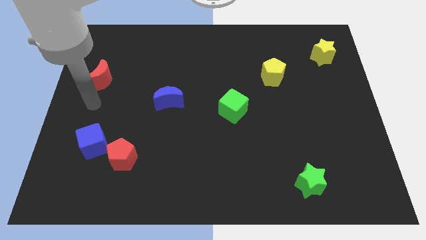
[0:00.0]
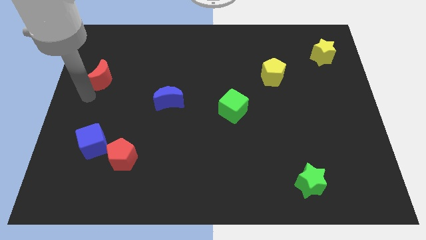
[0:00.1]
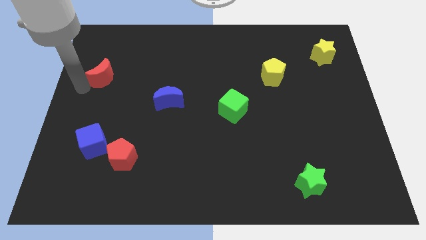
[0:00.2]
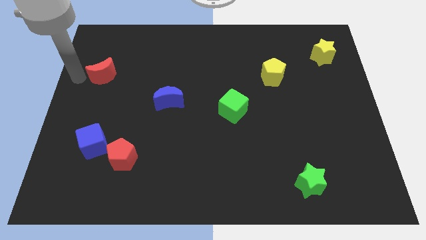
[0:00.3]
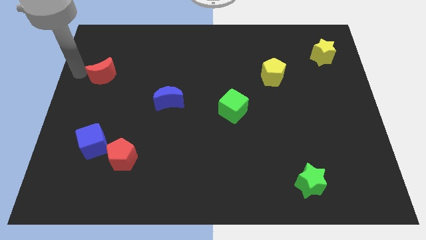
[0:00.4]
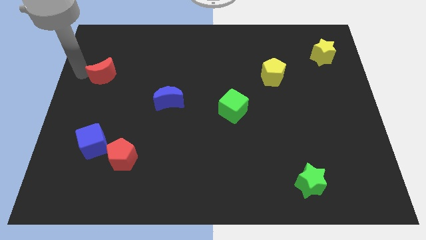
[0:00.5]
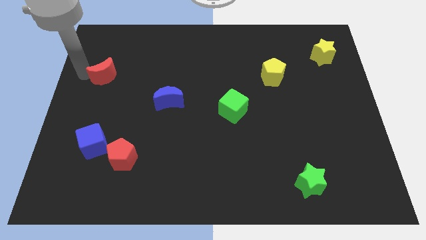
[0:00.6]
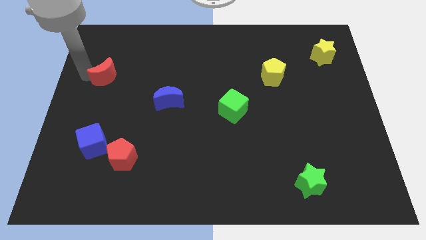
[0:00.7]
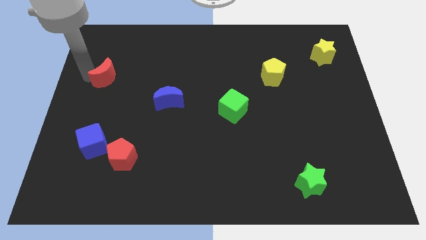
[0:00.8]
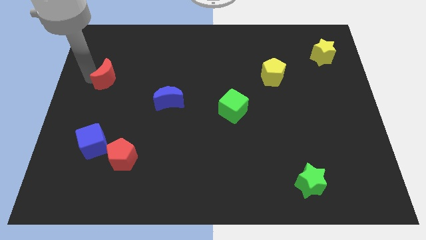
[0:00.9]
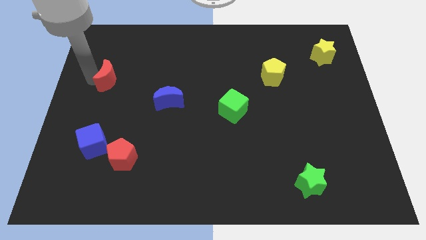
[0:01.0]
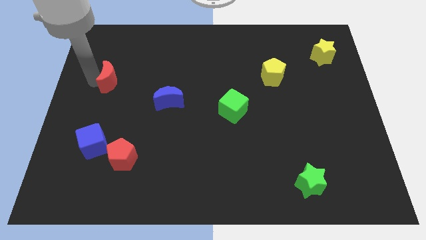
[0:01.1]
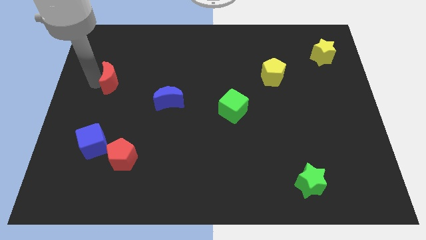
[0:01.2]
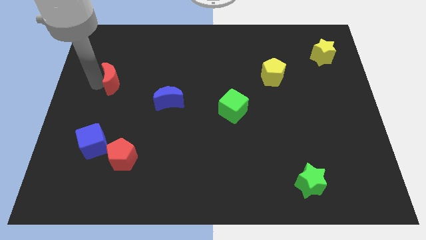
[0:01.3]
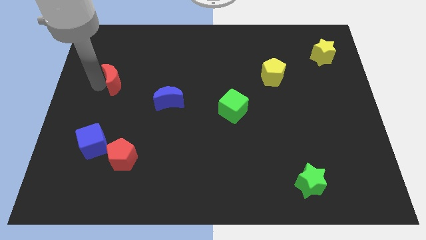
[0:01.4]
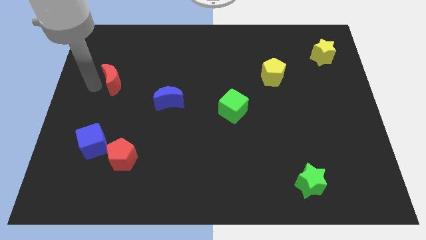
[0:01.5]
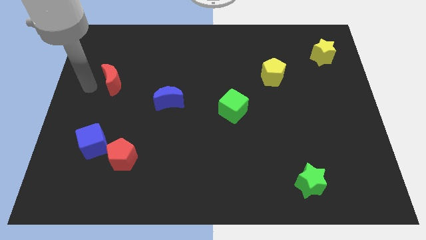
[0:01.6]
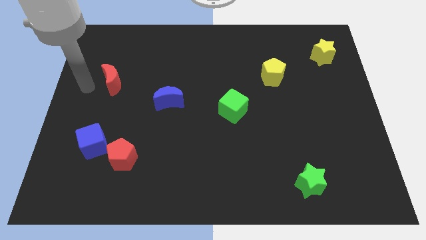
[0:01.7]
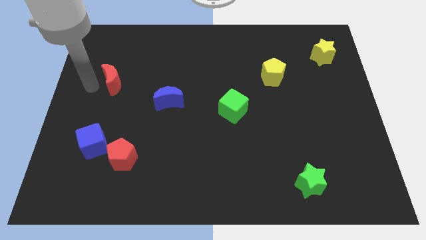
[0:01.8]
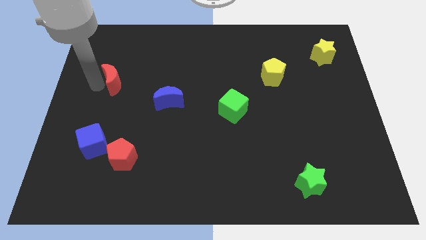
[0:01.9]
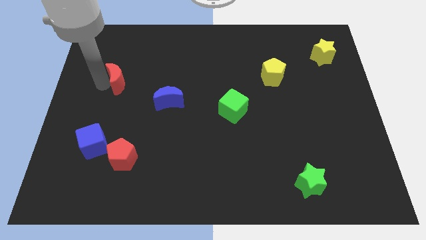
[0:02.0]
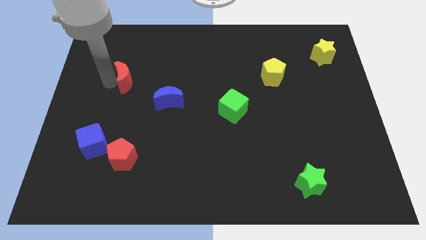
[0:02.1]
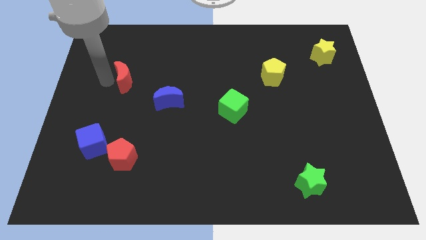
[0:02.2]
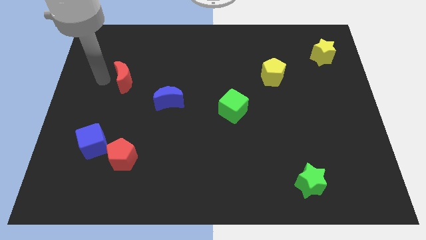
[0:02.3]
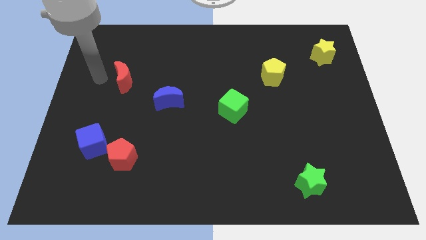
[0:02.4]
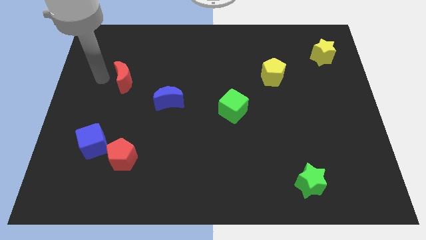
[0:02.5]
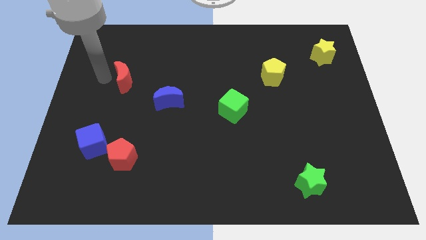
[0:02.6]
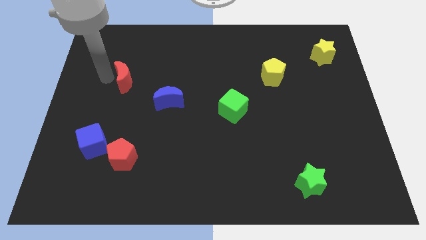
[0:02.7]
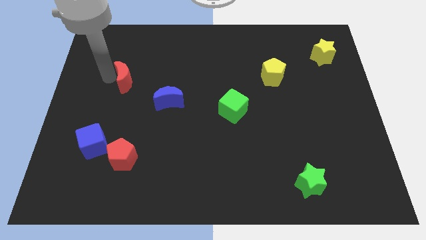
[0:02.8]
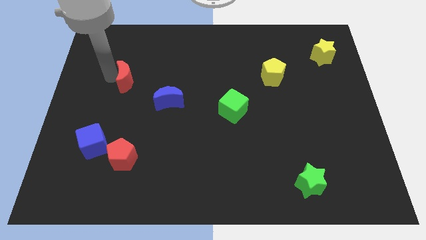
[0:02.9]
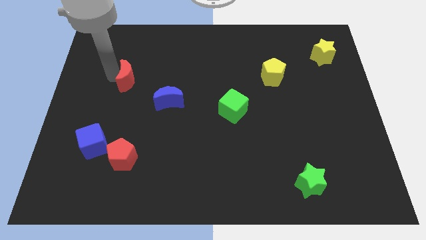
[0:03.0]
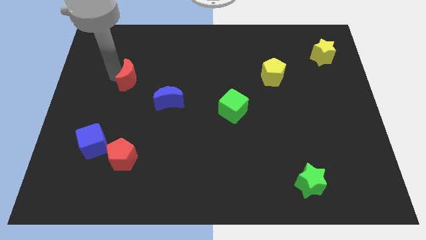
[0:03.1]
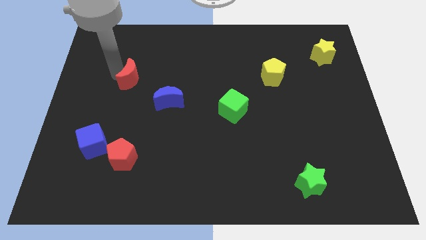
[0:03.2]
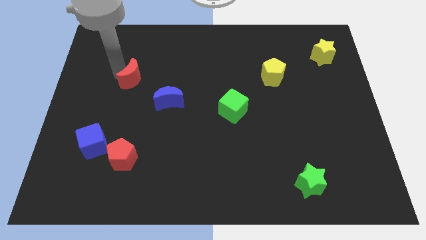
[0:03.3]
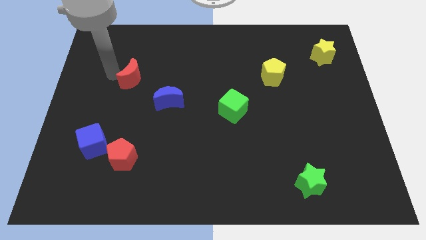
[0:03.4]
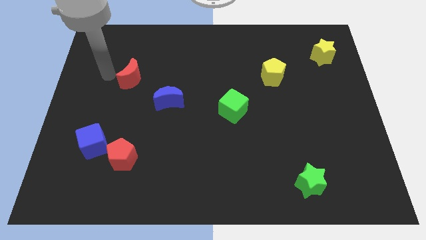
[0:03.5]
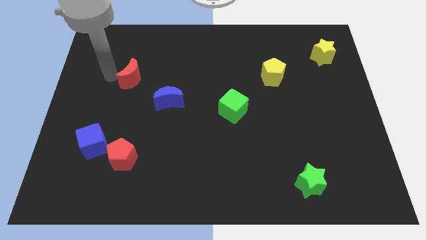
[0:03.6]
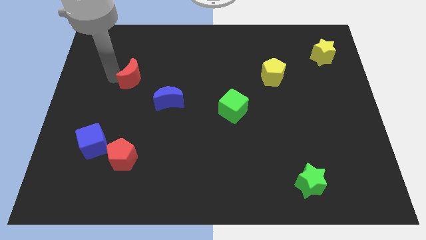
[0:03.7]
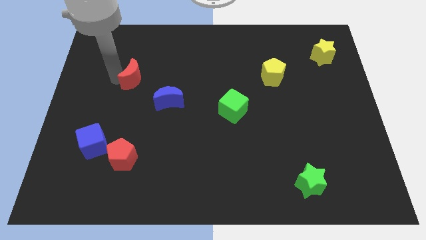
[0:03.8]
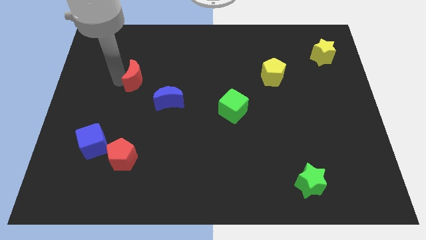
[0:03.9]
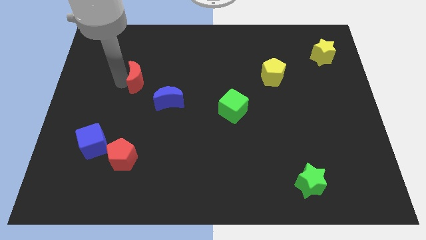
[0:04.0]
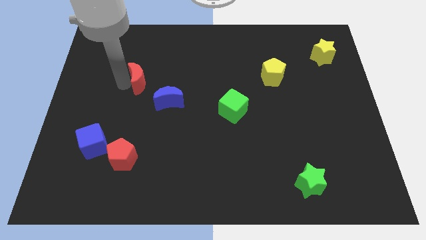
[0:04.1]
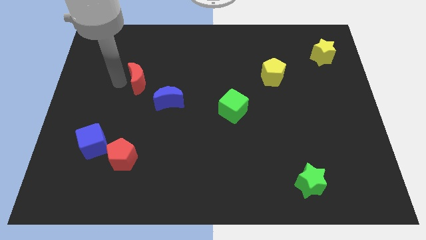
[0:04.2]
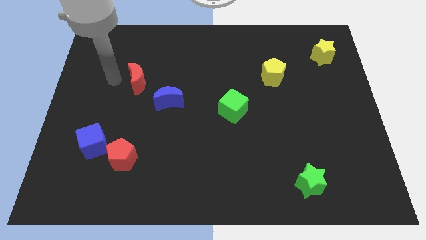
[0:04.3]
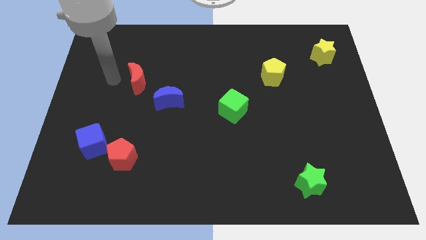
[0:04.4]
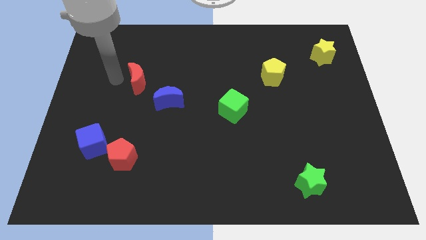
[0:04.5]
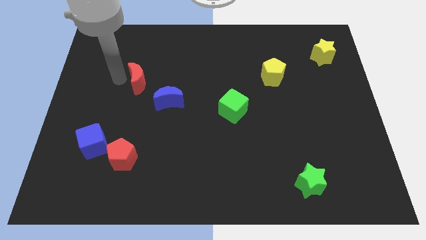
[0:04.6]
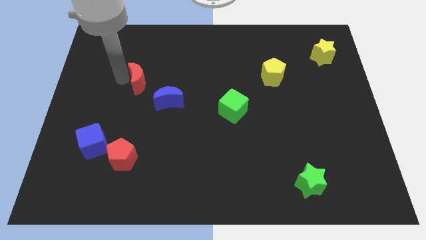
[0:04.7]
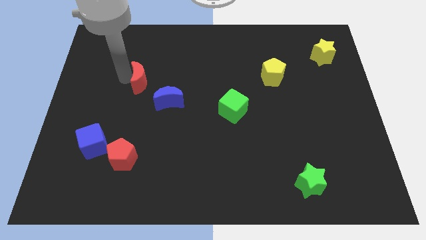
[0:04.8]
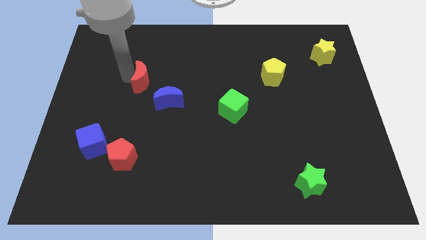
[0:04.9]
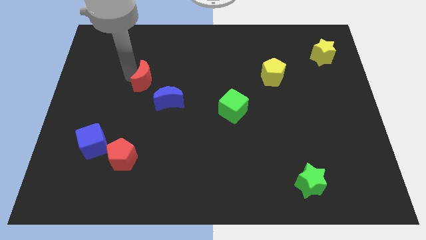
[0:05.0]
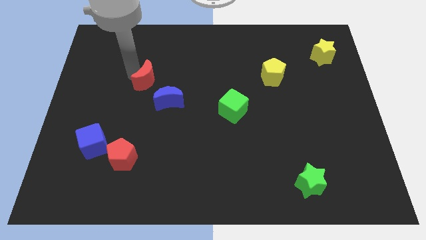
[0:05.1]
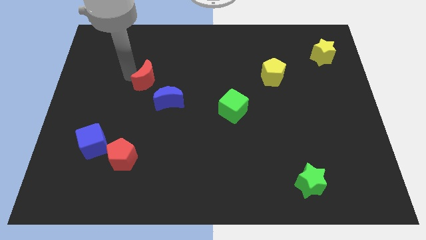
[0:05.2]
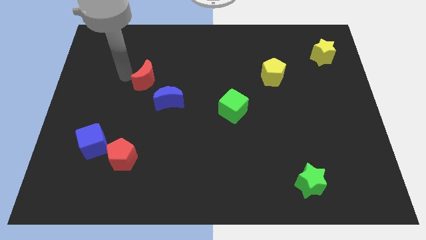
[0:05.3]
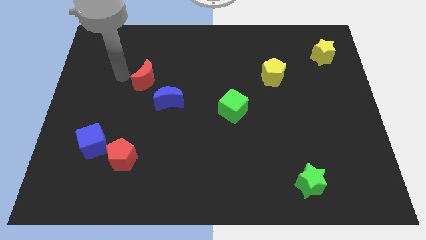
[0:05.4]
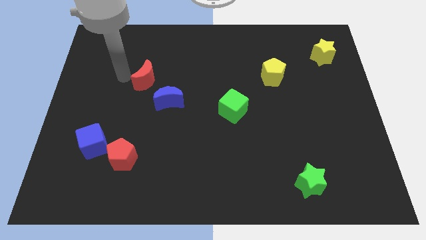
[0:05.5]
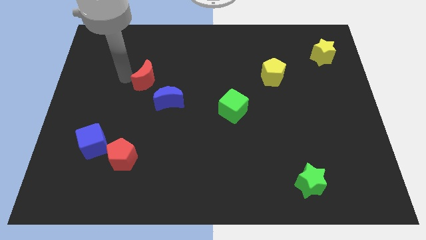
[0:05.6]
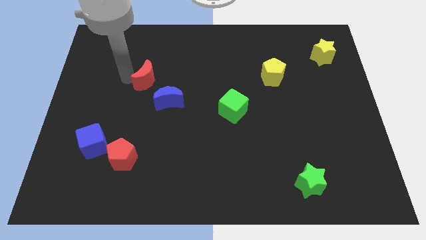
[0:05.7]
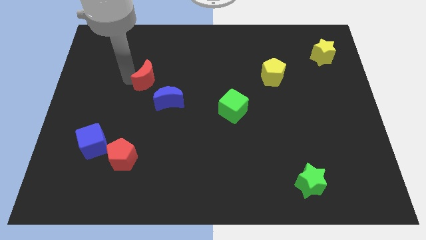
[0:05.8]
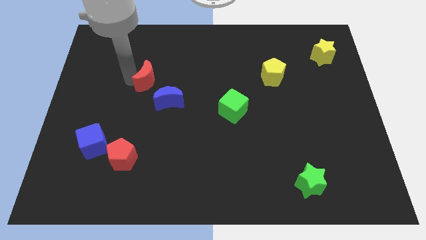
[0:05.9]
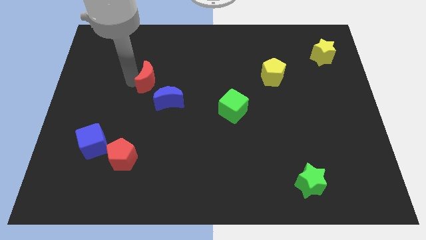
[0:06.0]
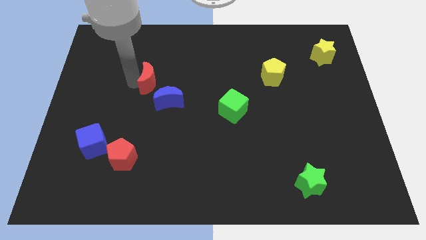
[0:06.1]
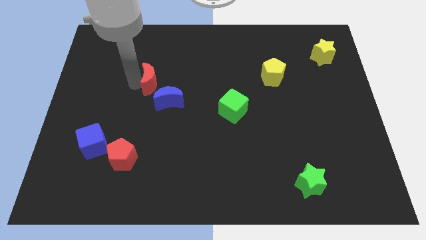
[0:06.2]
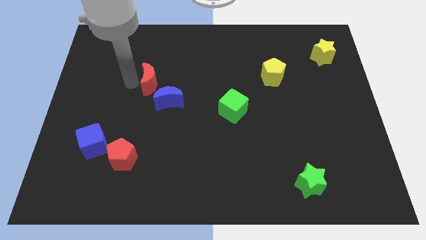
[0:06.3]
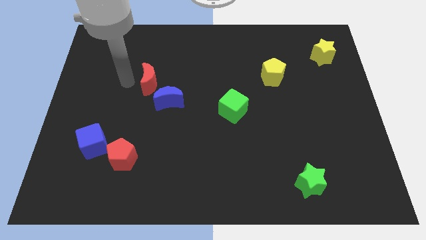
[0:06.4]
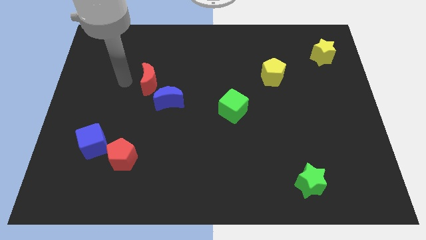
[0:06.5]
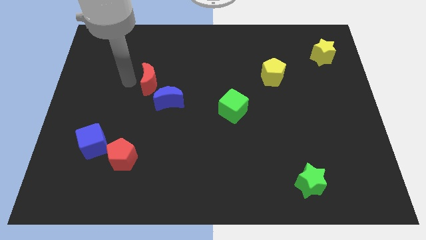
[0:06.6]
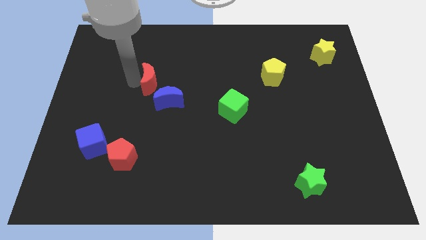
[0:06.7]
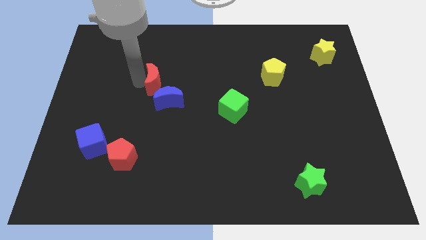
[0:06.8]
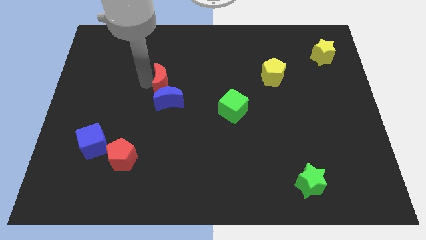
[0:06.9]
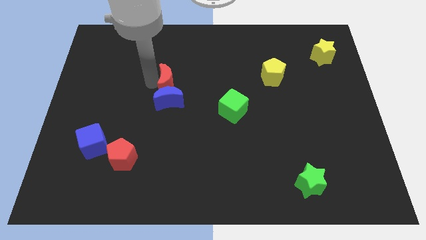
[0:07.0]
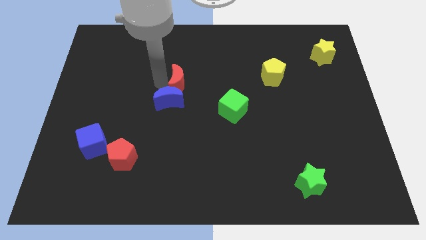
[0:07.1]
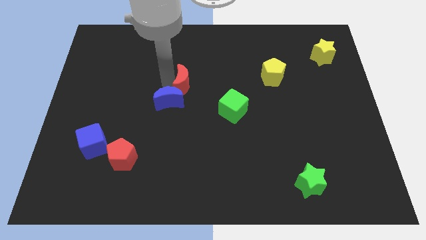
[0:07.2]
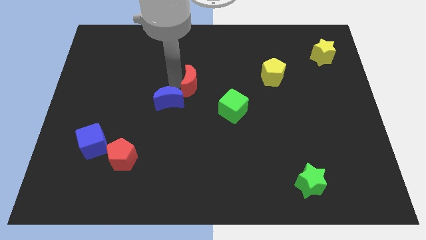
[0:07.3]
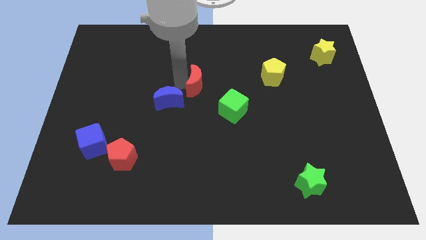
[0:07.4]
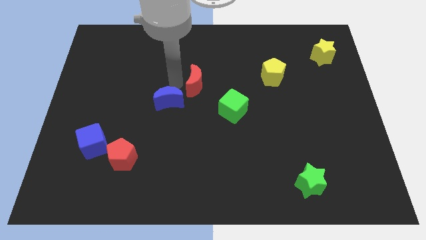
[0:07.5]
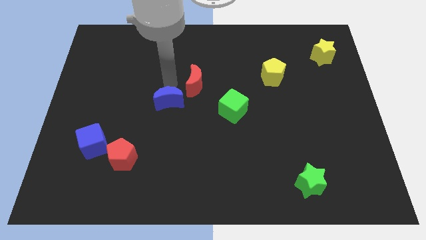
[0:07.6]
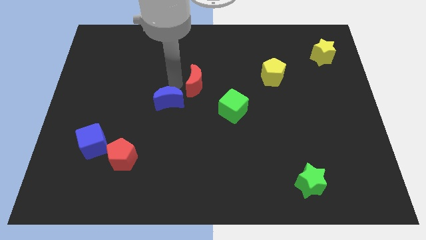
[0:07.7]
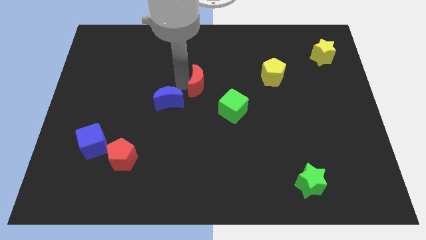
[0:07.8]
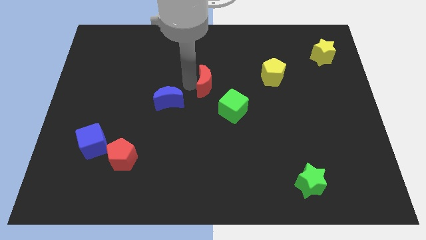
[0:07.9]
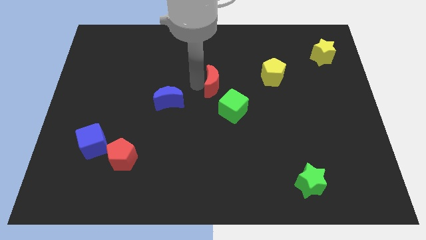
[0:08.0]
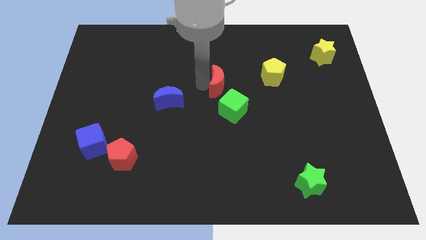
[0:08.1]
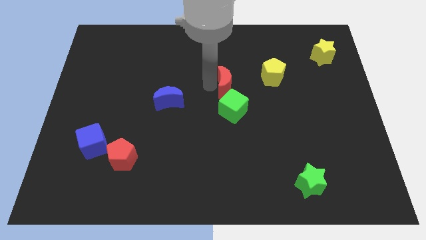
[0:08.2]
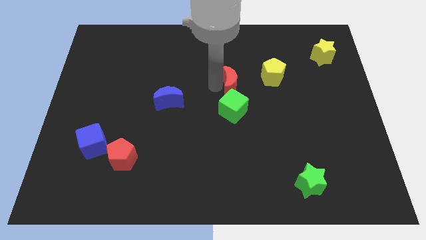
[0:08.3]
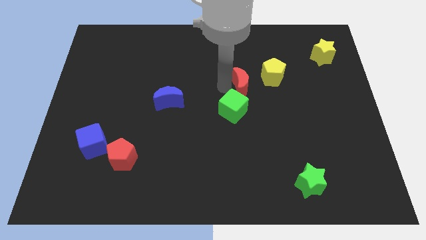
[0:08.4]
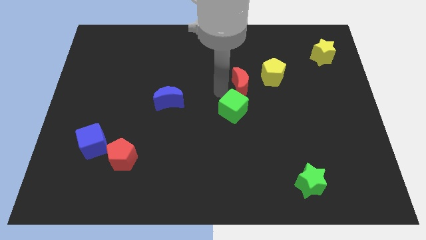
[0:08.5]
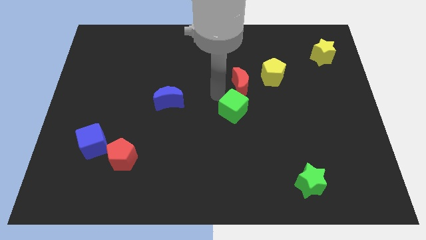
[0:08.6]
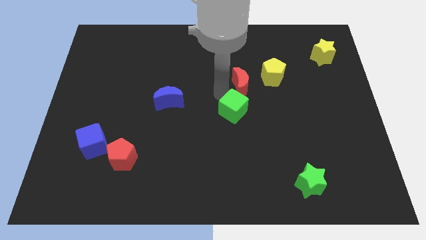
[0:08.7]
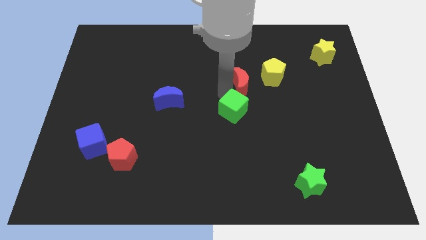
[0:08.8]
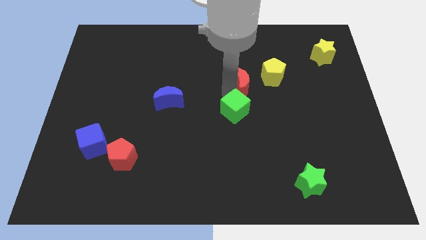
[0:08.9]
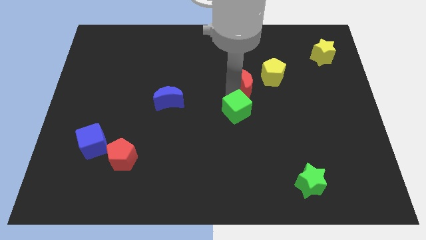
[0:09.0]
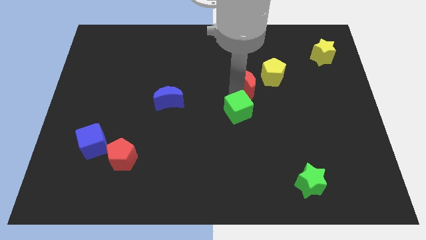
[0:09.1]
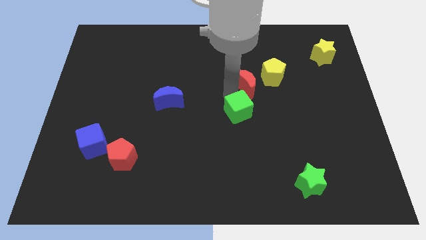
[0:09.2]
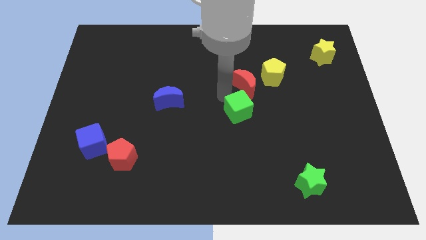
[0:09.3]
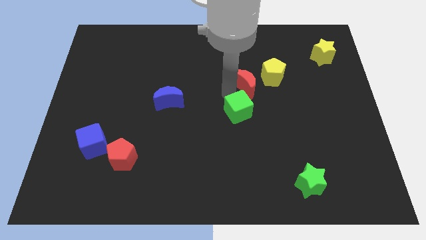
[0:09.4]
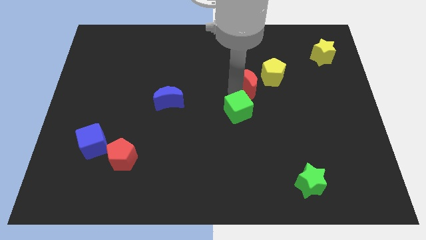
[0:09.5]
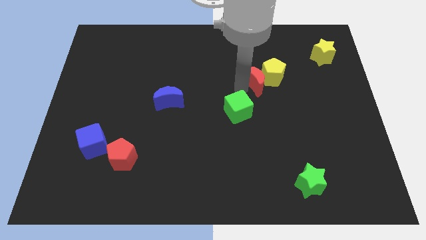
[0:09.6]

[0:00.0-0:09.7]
move the red moon to the yellow pentagon
